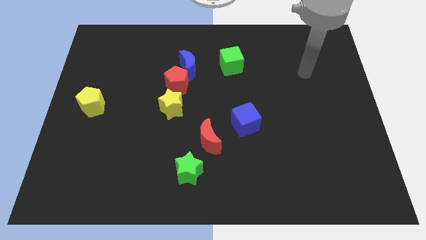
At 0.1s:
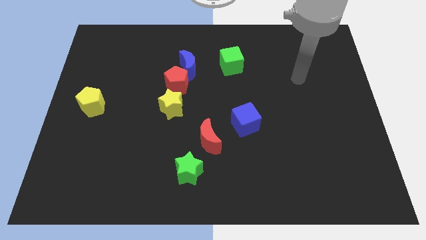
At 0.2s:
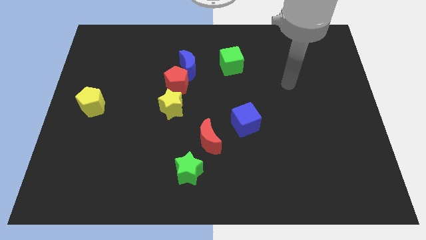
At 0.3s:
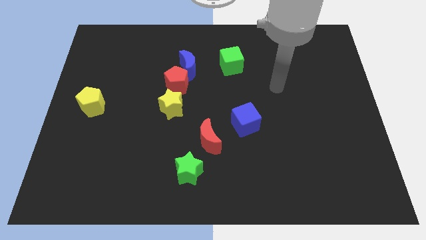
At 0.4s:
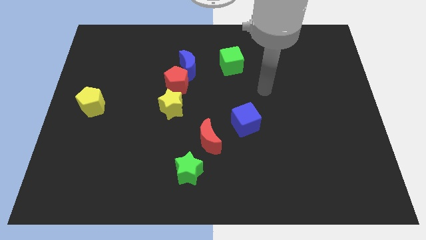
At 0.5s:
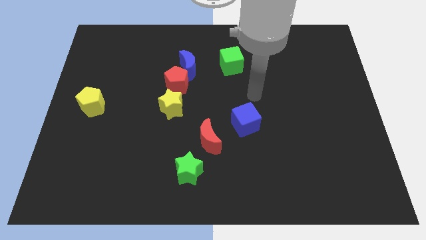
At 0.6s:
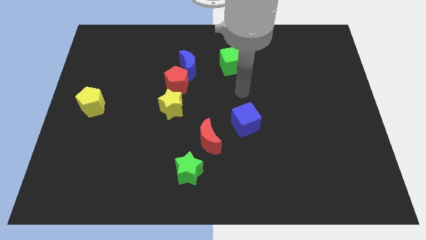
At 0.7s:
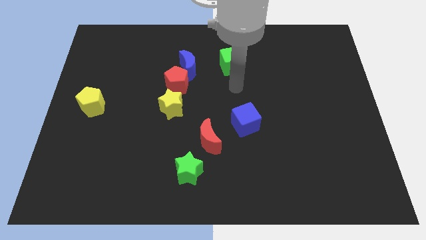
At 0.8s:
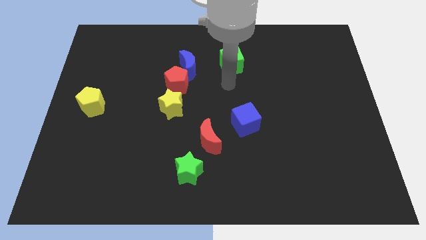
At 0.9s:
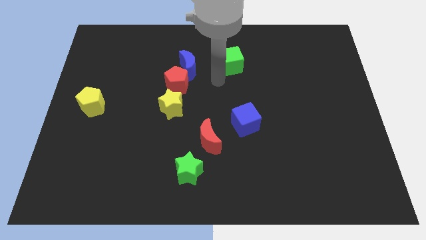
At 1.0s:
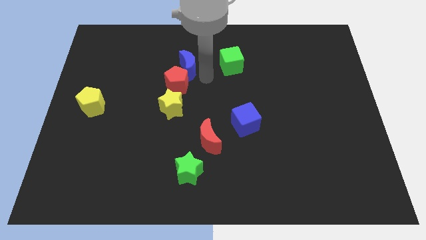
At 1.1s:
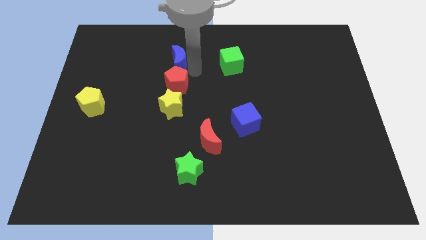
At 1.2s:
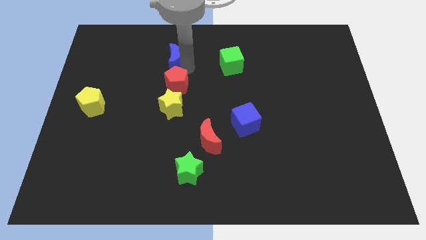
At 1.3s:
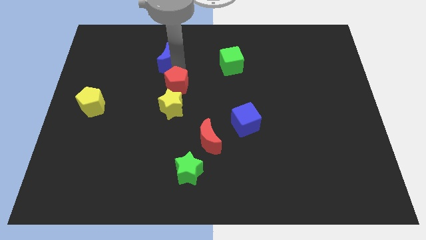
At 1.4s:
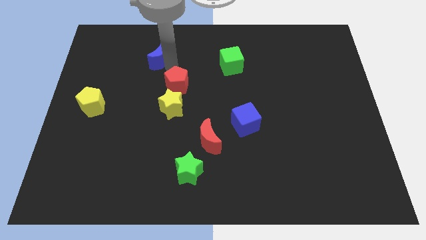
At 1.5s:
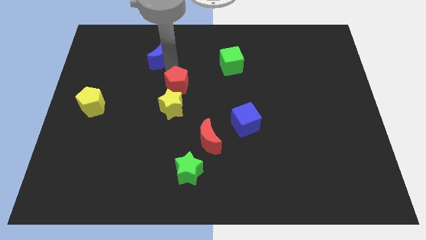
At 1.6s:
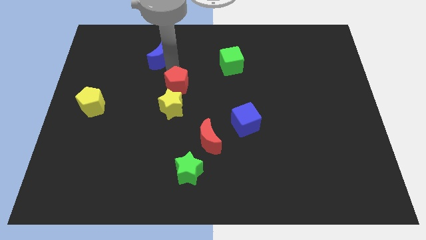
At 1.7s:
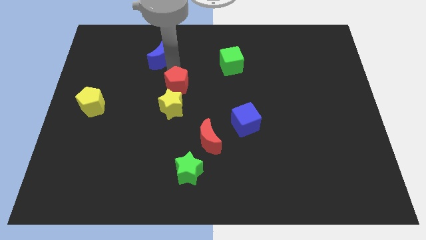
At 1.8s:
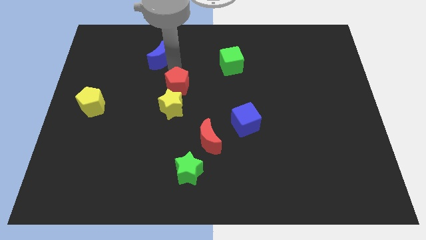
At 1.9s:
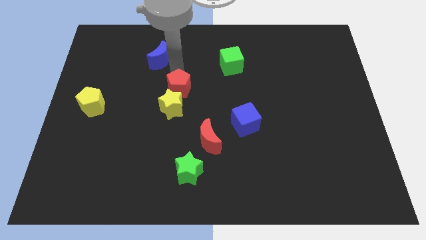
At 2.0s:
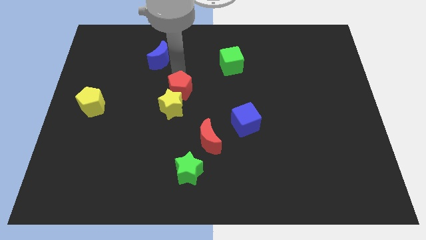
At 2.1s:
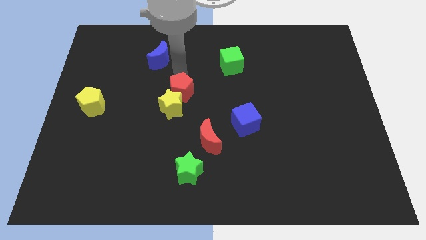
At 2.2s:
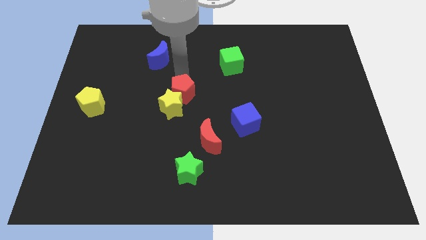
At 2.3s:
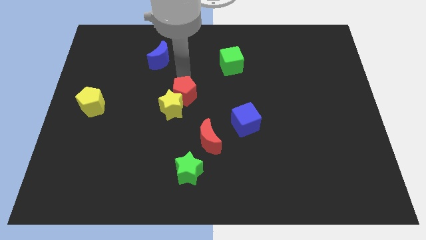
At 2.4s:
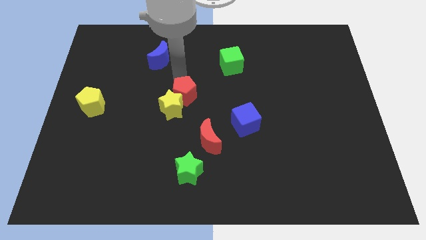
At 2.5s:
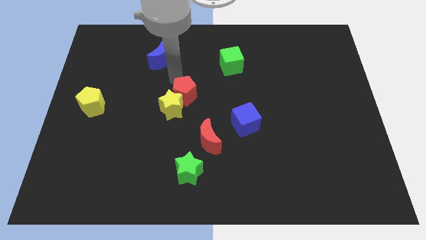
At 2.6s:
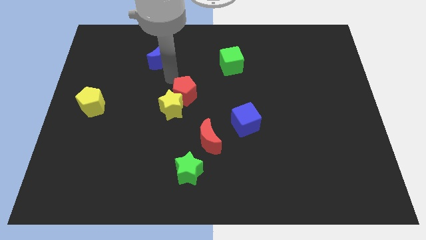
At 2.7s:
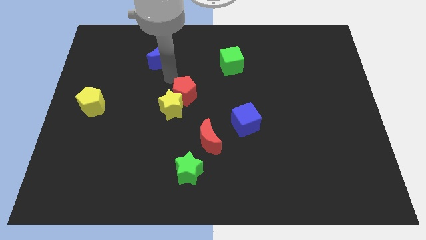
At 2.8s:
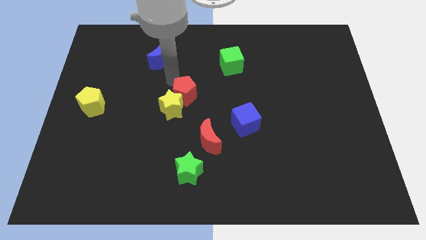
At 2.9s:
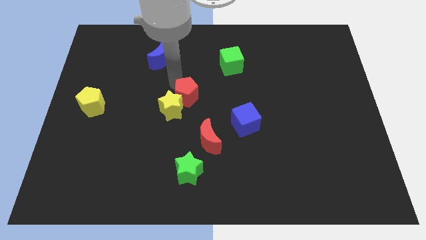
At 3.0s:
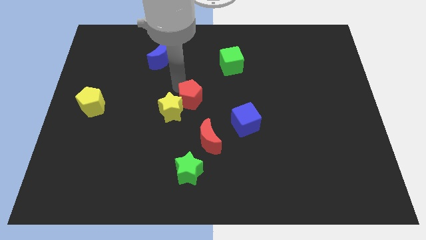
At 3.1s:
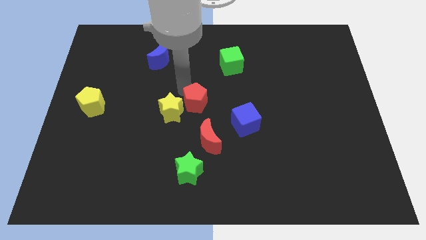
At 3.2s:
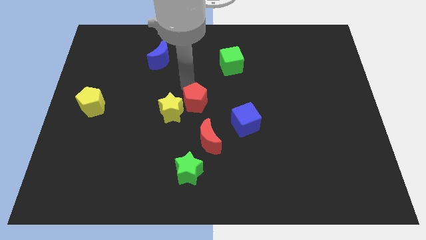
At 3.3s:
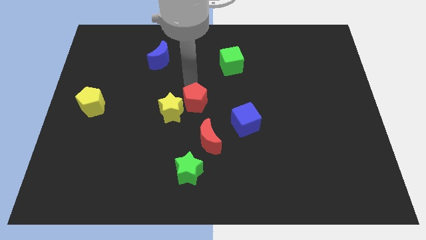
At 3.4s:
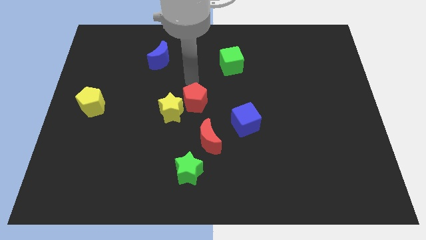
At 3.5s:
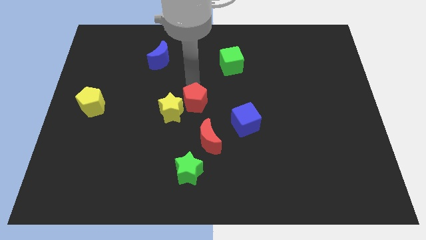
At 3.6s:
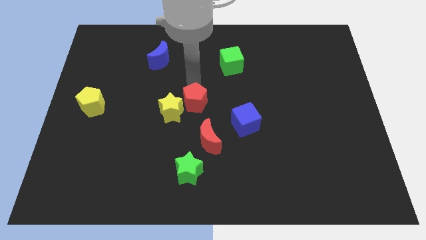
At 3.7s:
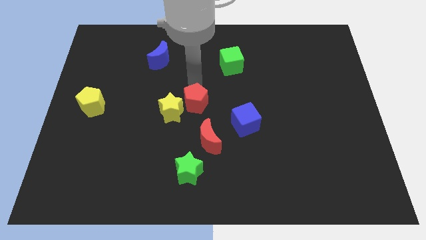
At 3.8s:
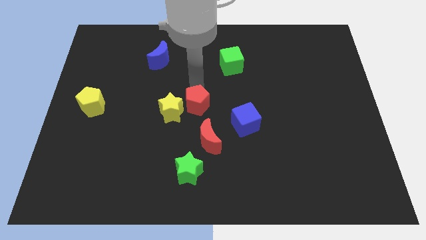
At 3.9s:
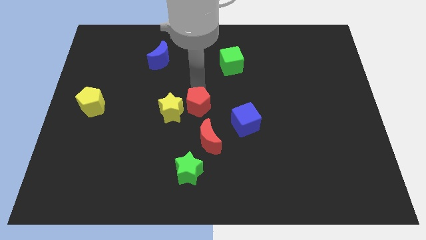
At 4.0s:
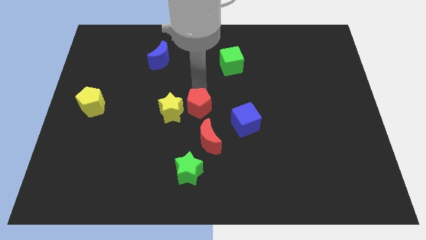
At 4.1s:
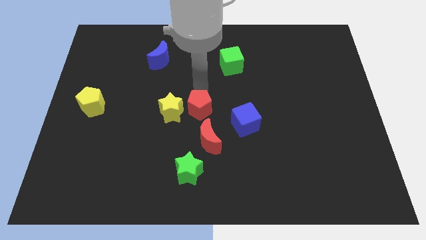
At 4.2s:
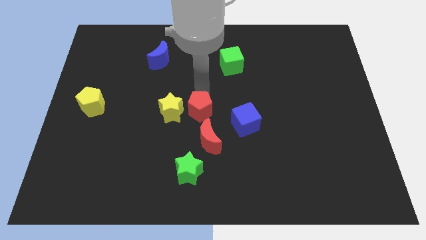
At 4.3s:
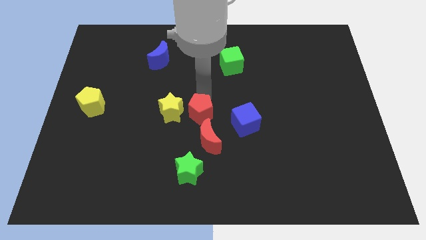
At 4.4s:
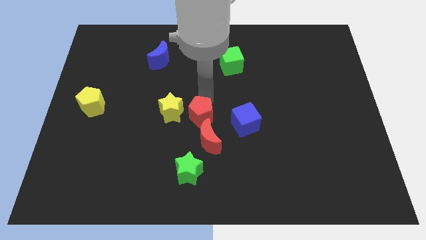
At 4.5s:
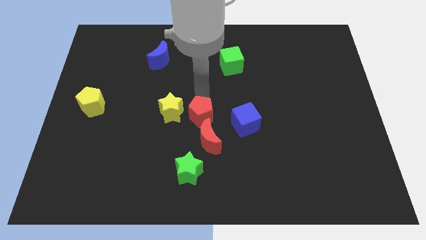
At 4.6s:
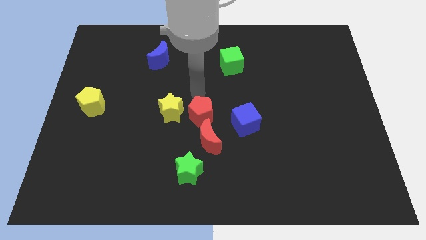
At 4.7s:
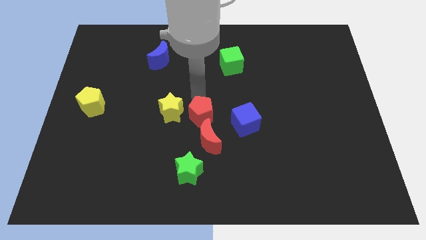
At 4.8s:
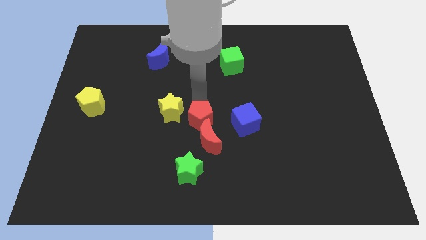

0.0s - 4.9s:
slide the red pentagon to the red moon

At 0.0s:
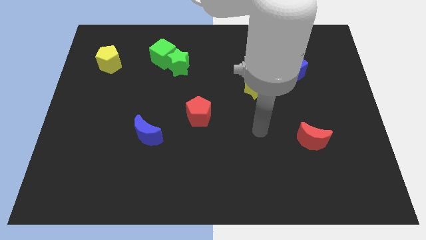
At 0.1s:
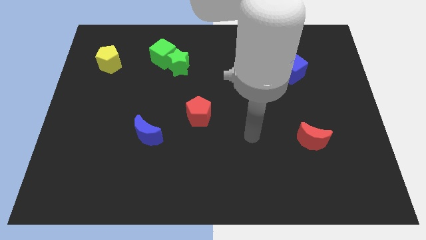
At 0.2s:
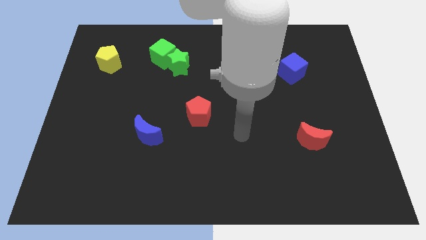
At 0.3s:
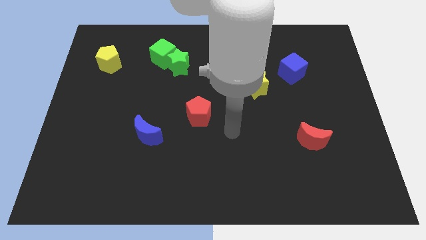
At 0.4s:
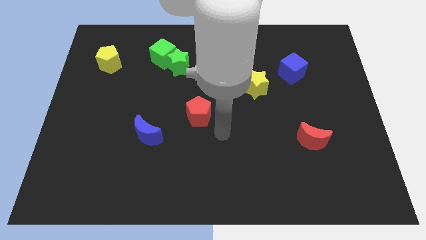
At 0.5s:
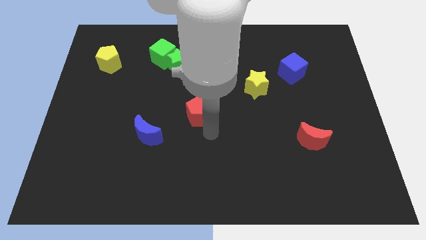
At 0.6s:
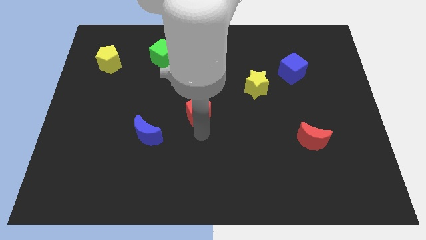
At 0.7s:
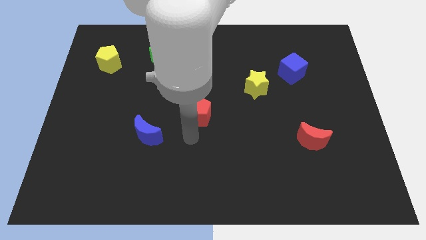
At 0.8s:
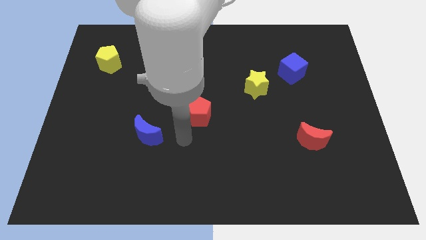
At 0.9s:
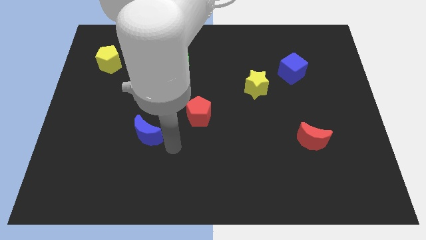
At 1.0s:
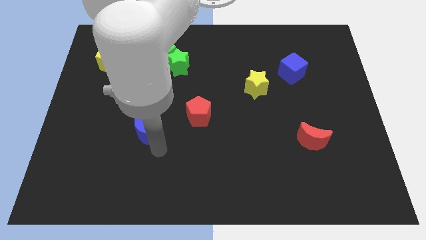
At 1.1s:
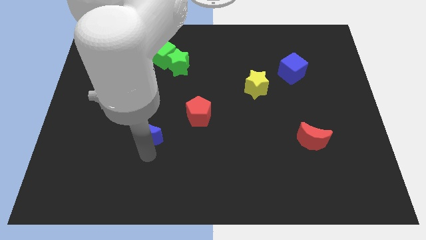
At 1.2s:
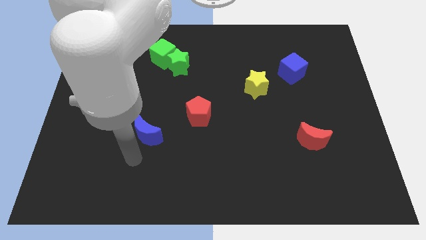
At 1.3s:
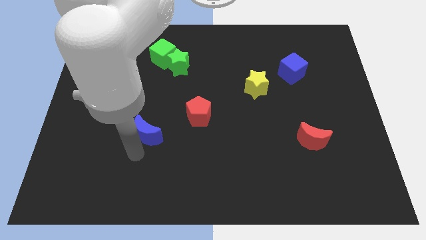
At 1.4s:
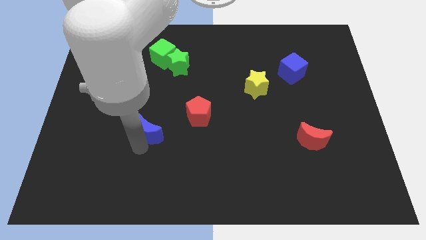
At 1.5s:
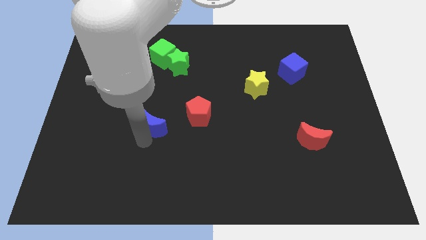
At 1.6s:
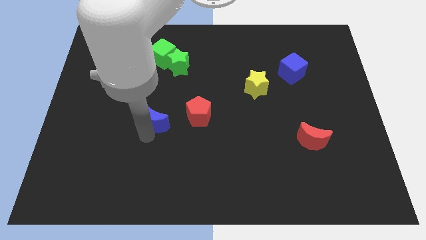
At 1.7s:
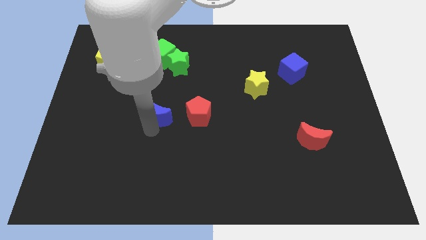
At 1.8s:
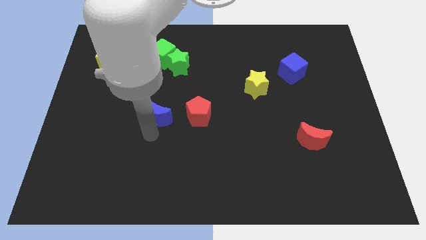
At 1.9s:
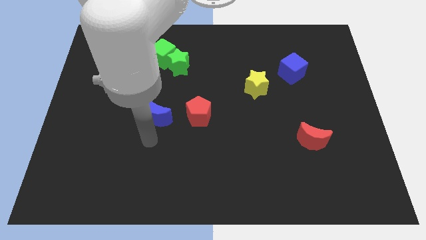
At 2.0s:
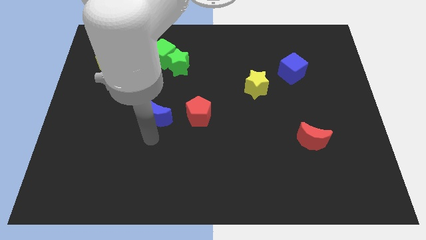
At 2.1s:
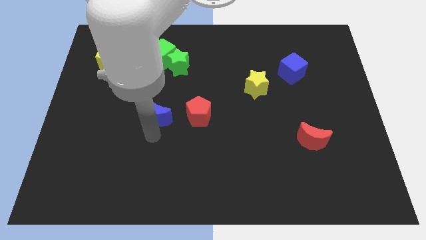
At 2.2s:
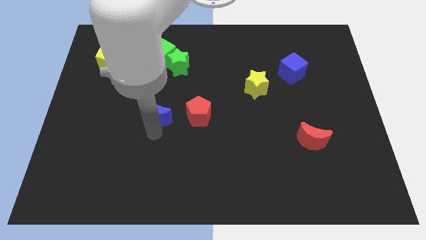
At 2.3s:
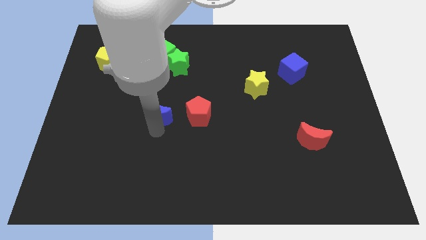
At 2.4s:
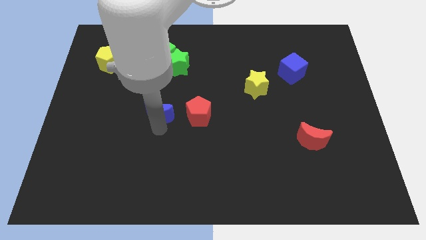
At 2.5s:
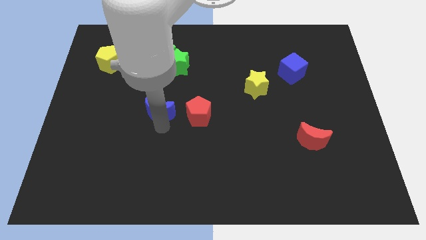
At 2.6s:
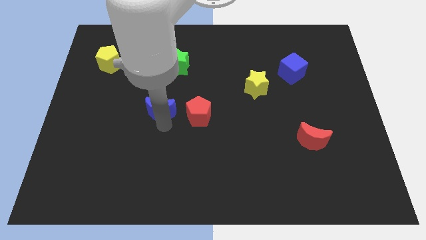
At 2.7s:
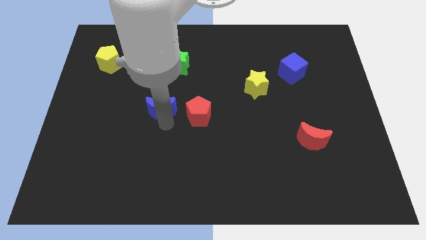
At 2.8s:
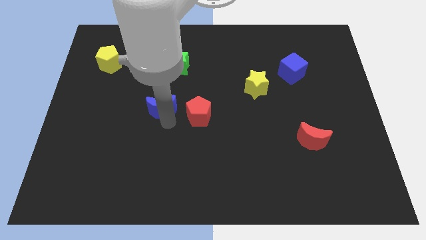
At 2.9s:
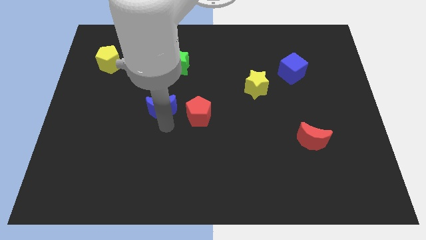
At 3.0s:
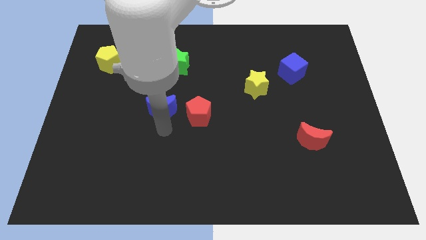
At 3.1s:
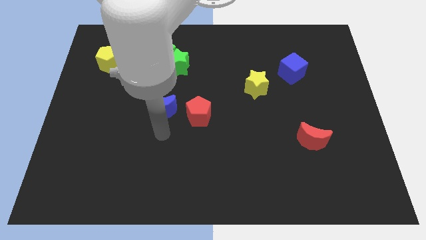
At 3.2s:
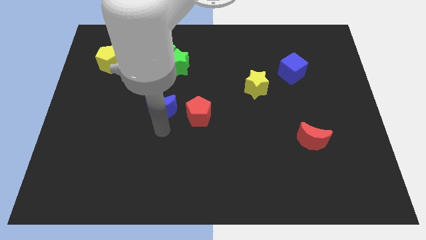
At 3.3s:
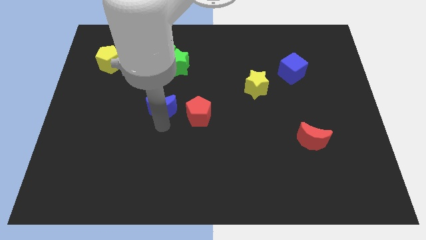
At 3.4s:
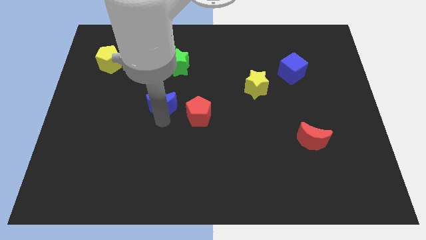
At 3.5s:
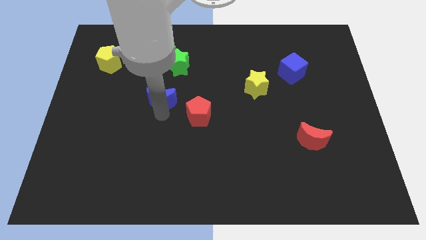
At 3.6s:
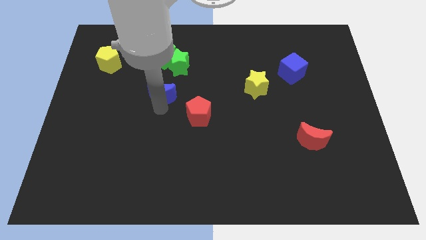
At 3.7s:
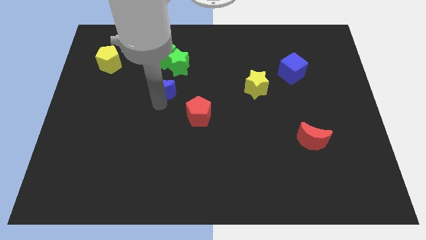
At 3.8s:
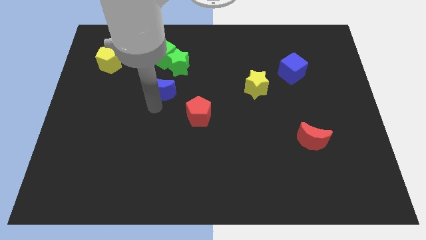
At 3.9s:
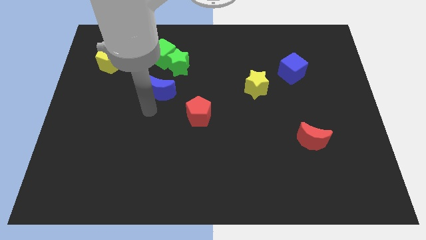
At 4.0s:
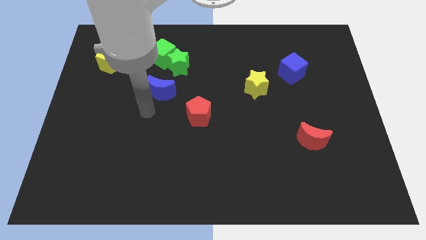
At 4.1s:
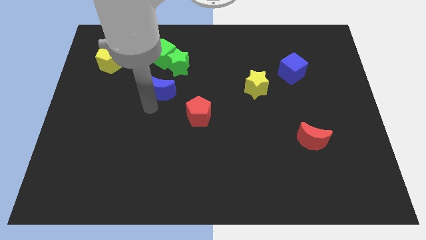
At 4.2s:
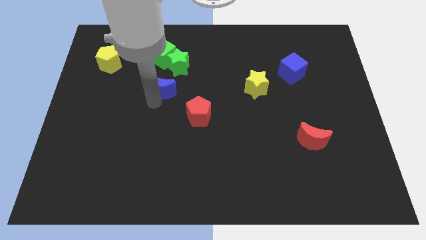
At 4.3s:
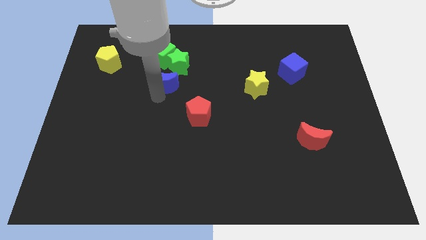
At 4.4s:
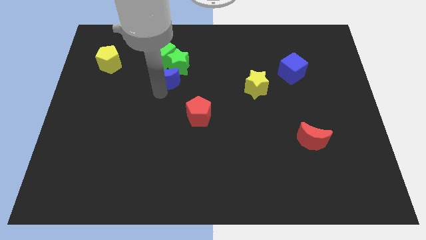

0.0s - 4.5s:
put the blue moon close to the green star
